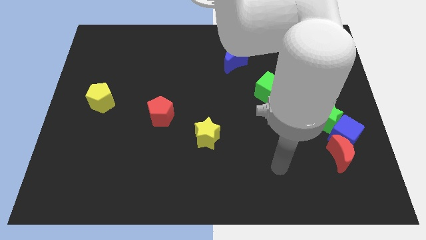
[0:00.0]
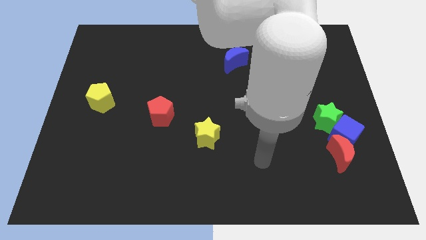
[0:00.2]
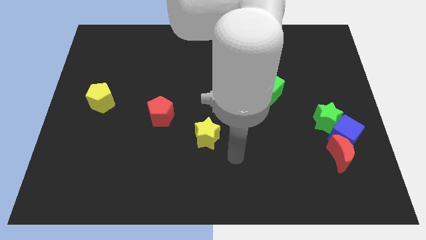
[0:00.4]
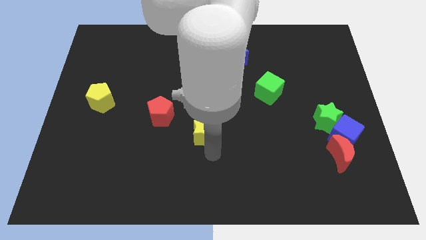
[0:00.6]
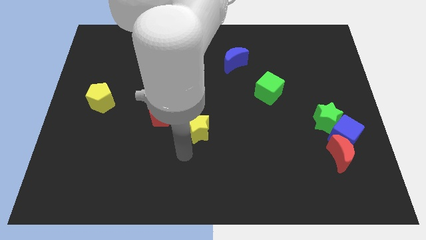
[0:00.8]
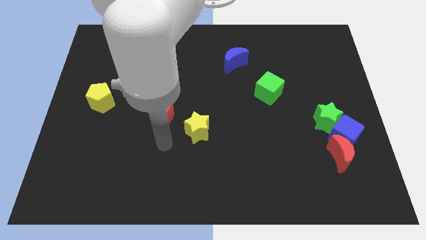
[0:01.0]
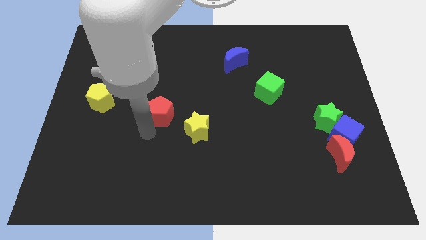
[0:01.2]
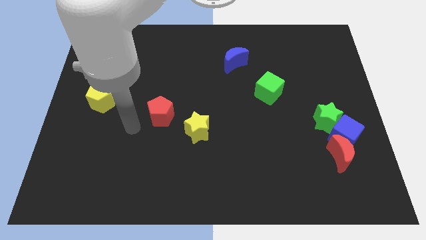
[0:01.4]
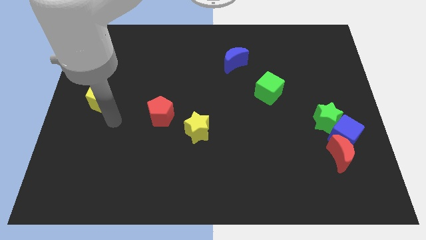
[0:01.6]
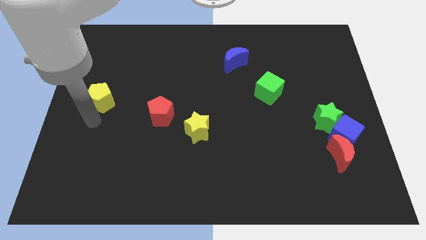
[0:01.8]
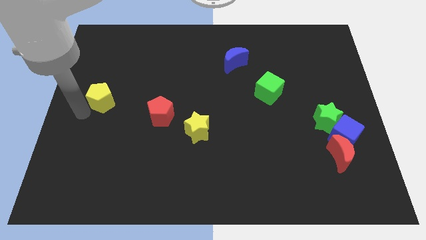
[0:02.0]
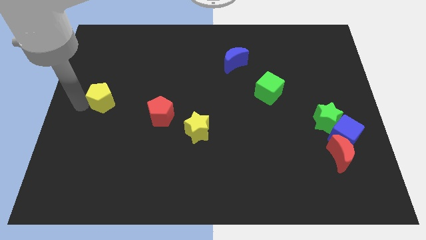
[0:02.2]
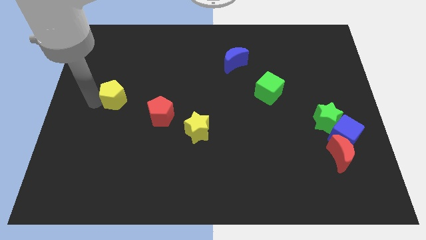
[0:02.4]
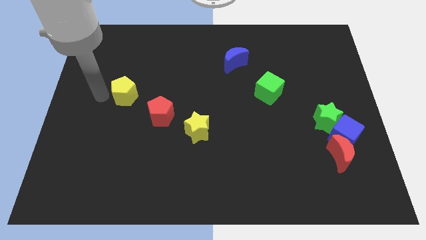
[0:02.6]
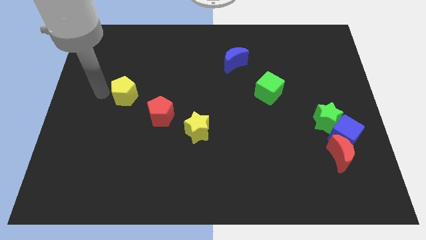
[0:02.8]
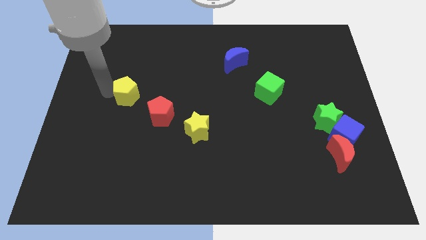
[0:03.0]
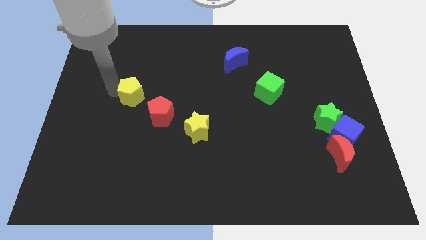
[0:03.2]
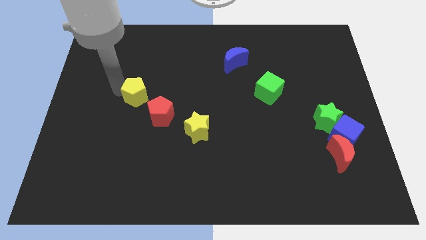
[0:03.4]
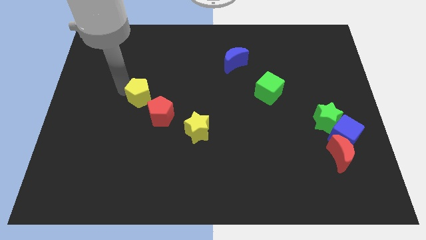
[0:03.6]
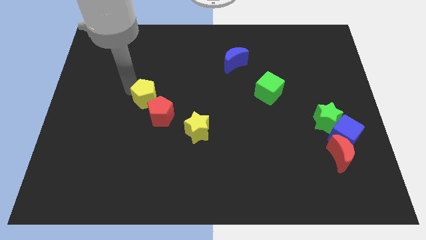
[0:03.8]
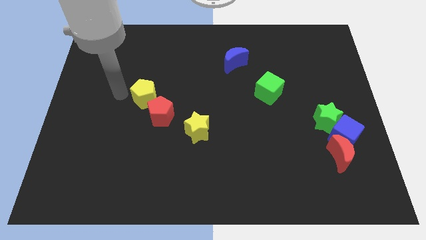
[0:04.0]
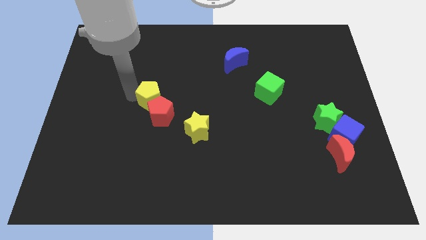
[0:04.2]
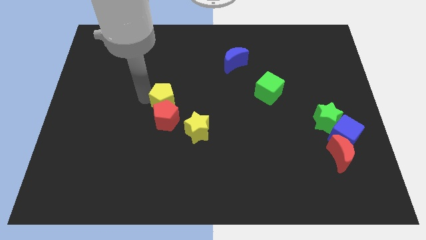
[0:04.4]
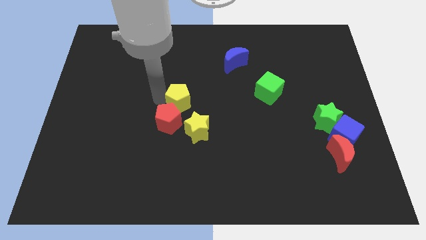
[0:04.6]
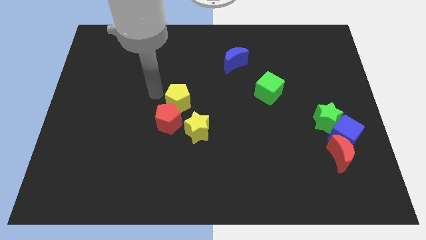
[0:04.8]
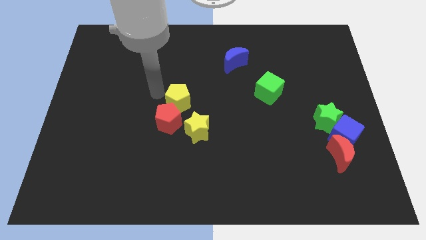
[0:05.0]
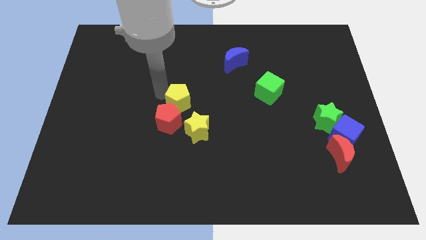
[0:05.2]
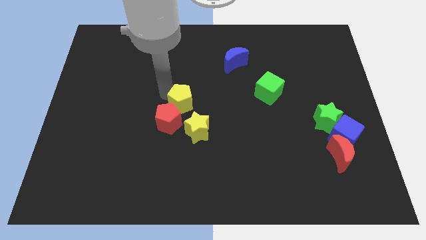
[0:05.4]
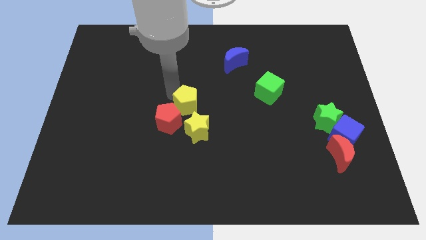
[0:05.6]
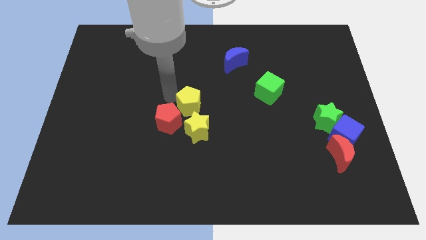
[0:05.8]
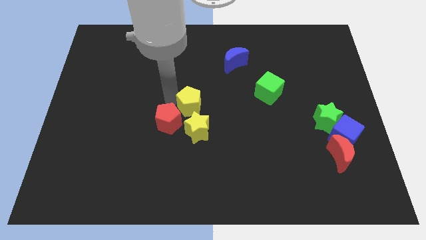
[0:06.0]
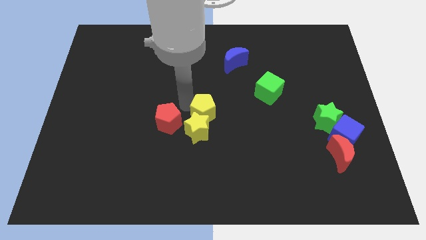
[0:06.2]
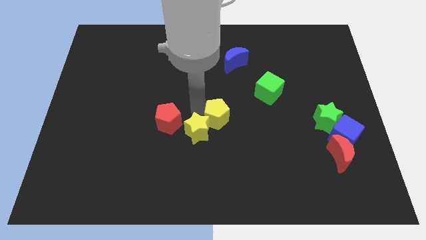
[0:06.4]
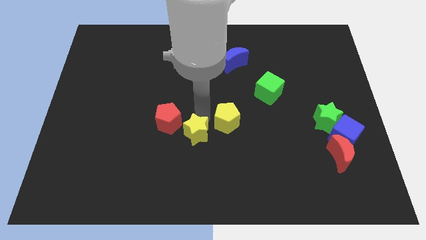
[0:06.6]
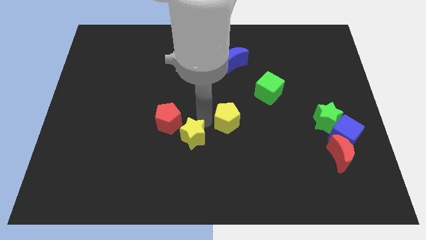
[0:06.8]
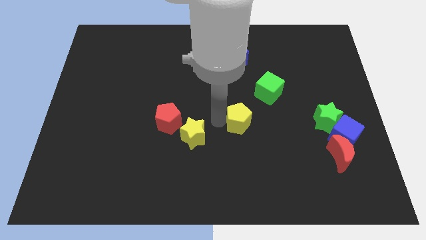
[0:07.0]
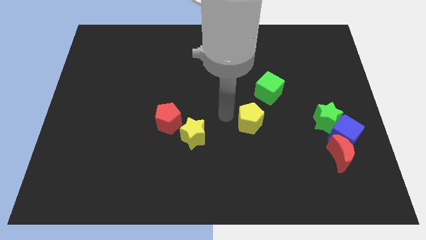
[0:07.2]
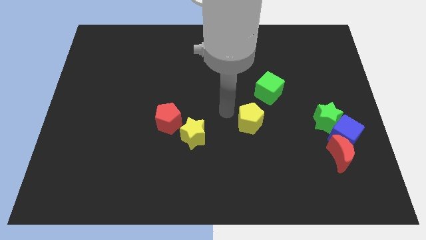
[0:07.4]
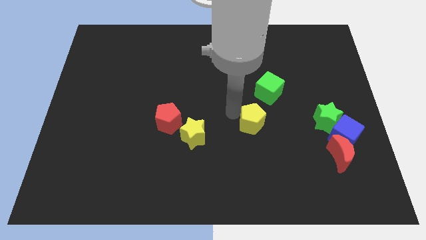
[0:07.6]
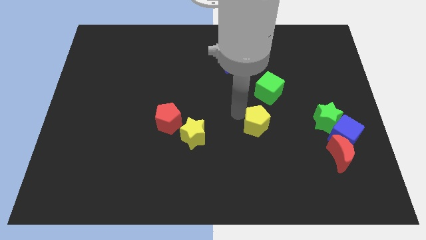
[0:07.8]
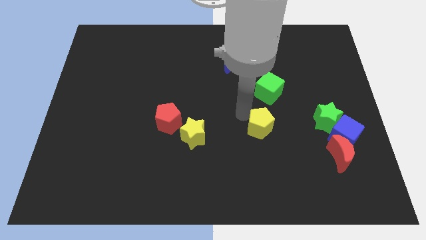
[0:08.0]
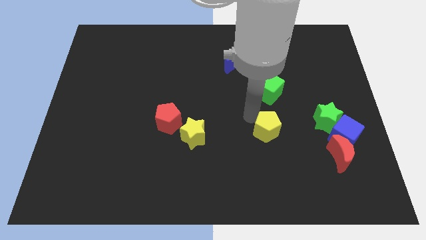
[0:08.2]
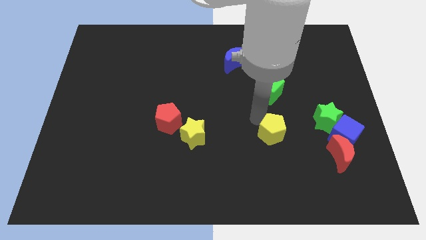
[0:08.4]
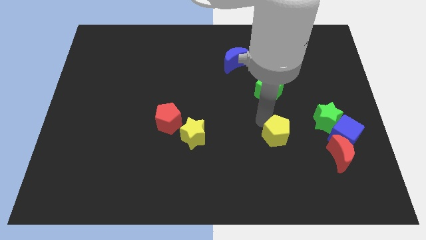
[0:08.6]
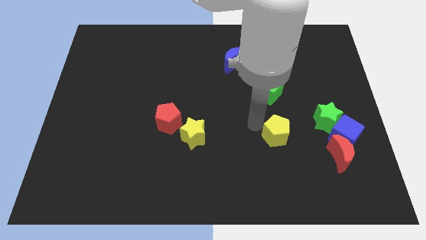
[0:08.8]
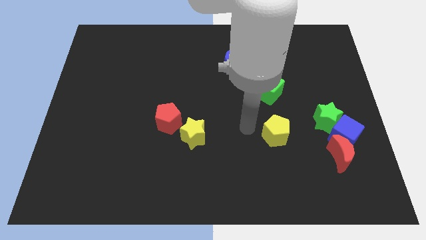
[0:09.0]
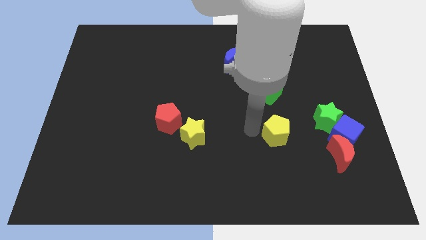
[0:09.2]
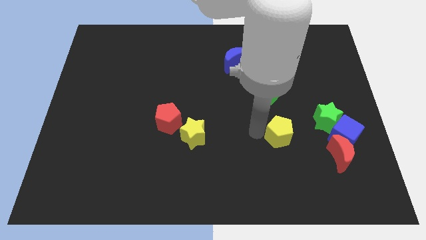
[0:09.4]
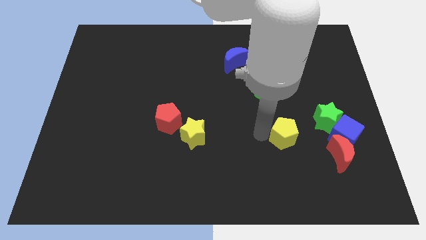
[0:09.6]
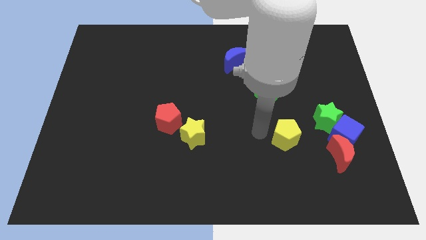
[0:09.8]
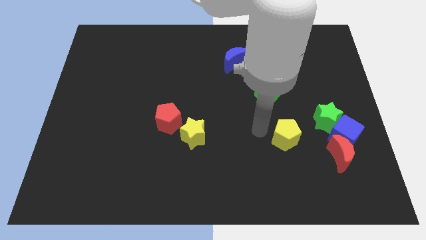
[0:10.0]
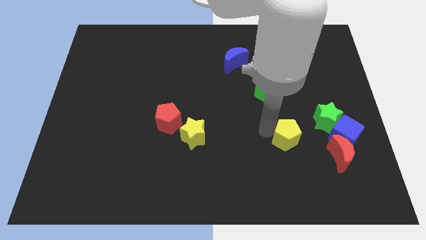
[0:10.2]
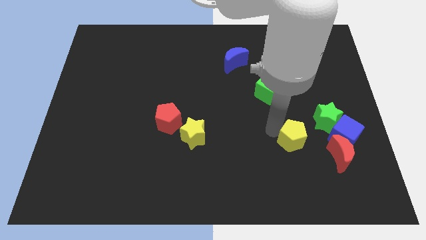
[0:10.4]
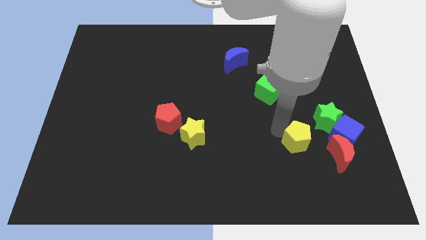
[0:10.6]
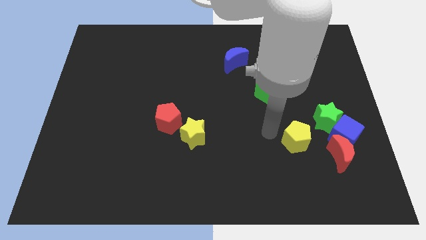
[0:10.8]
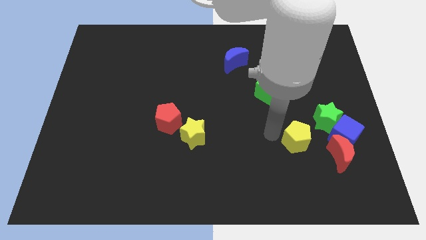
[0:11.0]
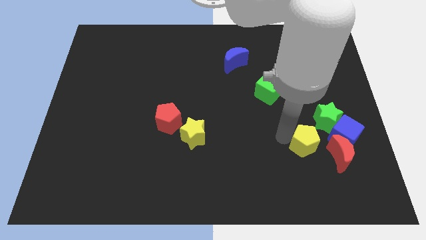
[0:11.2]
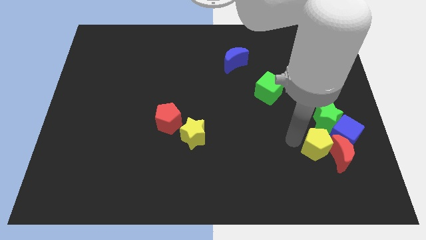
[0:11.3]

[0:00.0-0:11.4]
put the yellow pentagon next to the red moon
